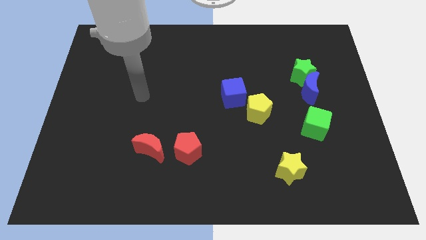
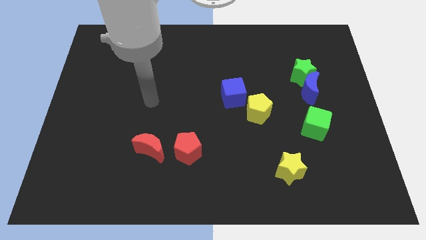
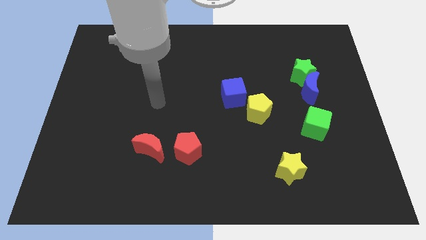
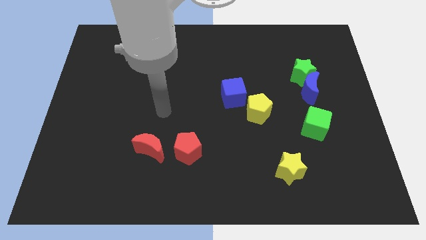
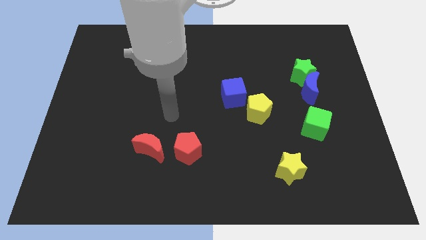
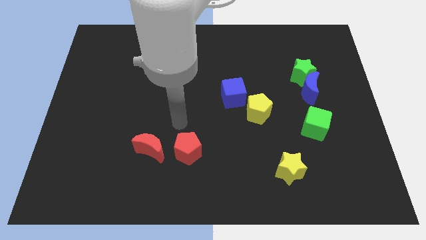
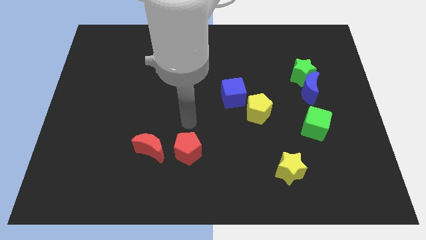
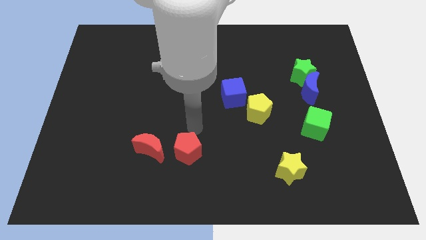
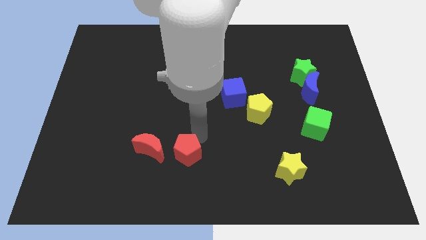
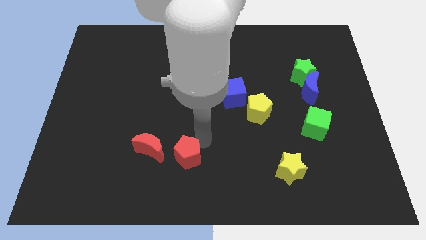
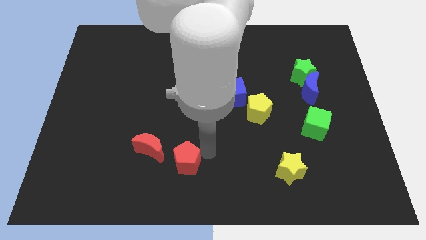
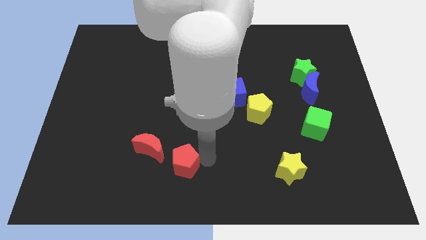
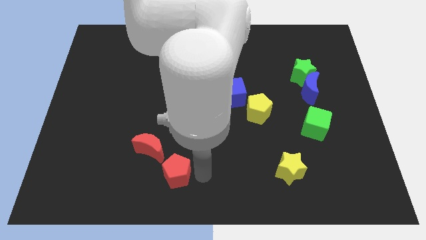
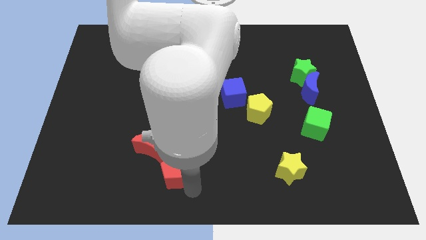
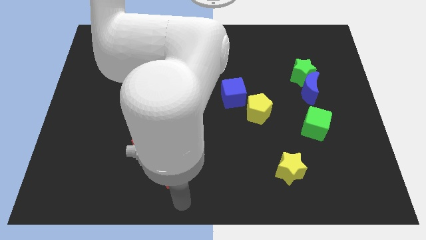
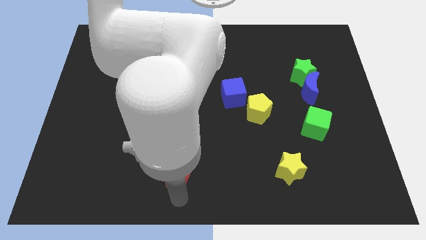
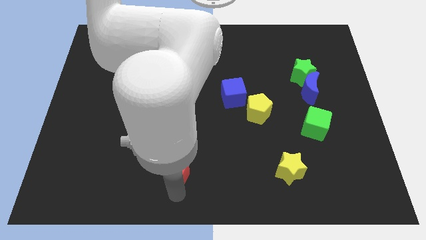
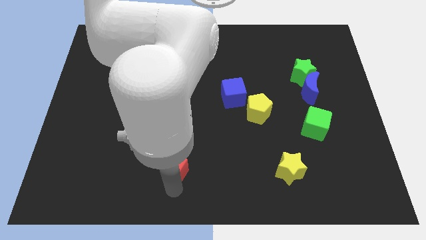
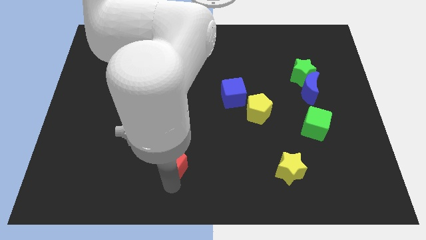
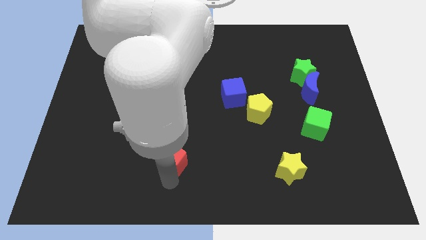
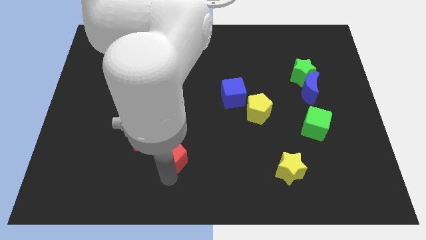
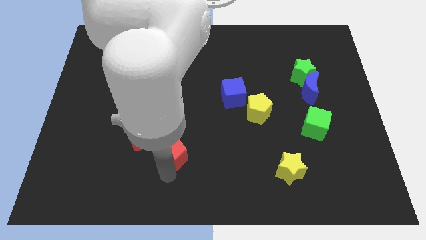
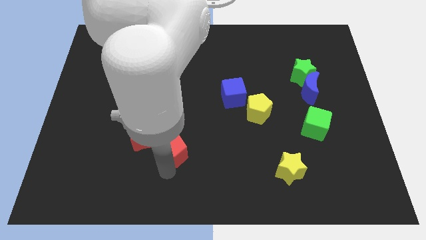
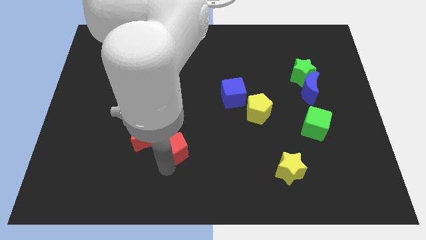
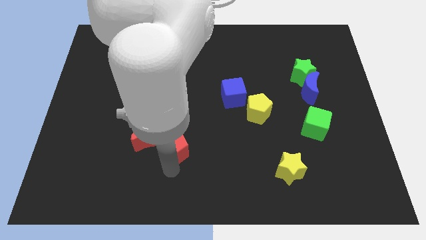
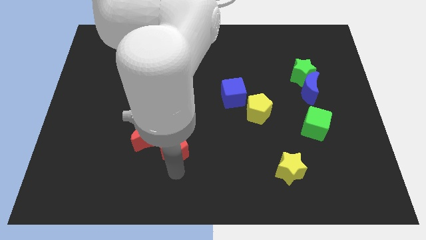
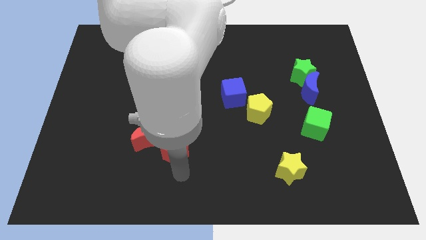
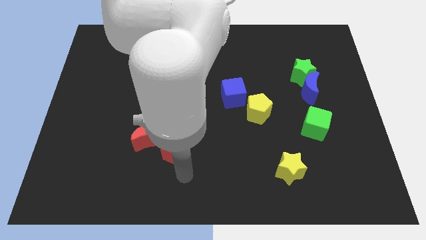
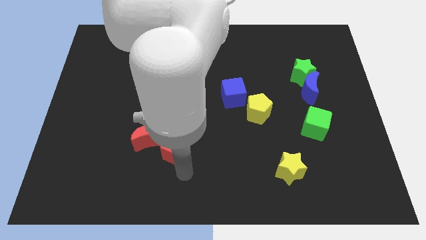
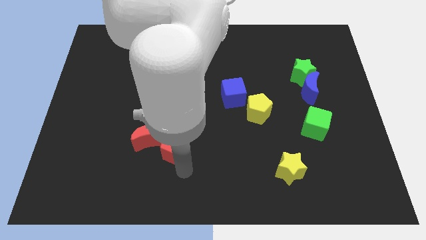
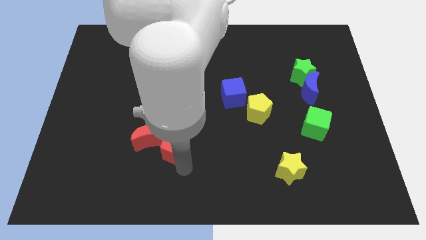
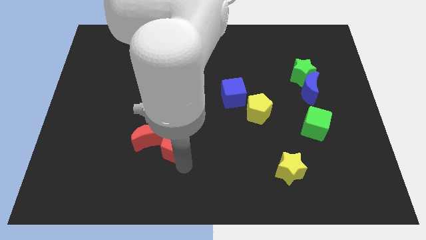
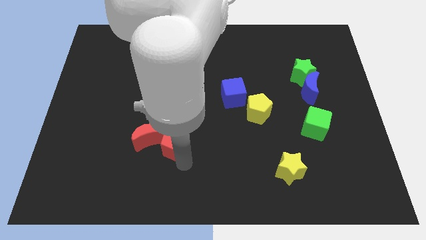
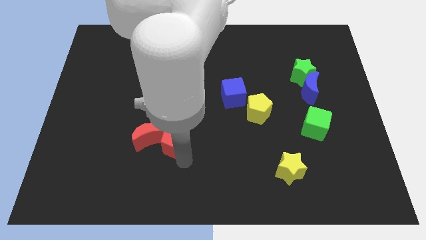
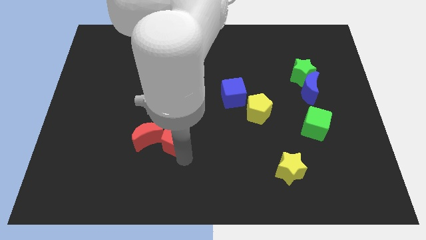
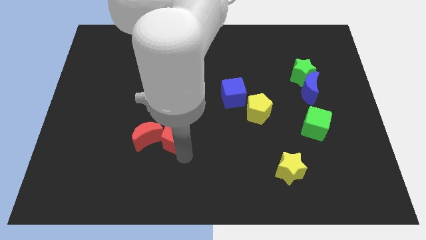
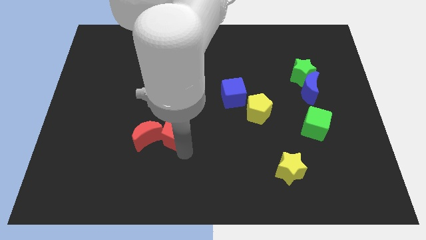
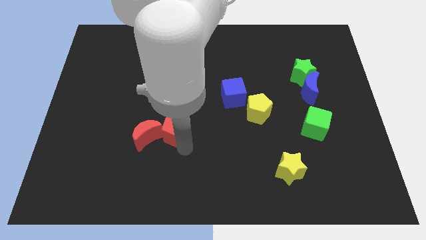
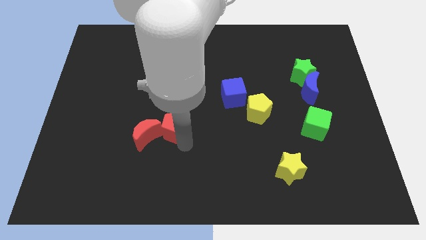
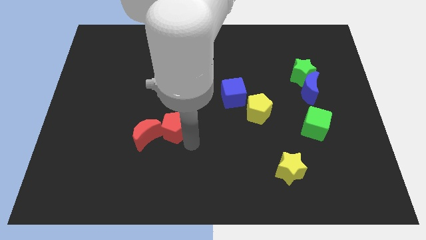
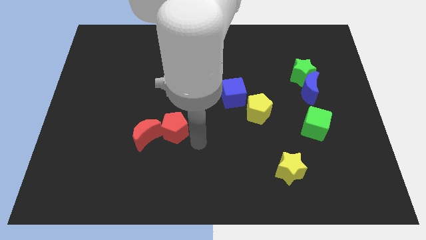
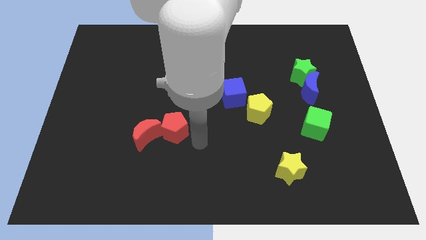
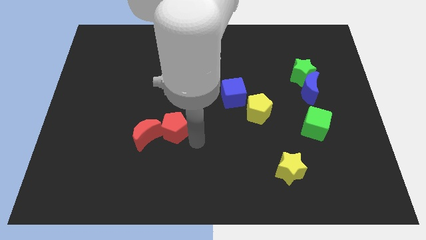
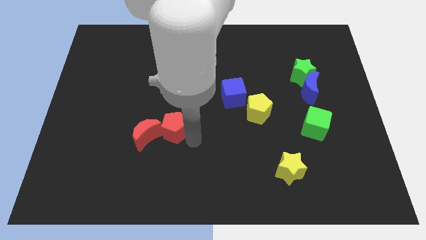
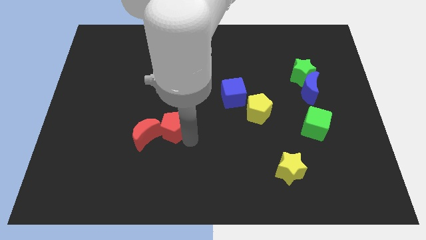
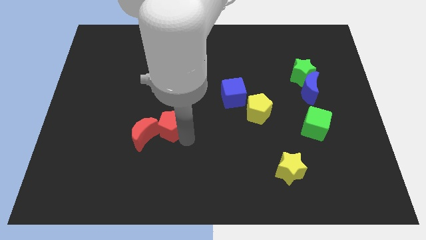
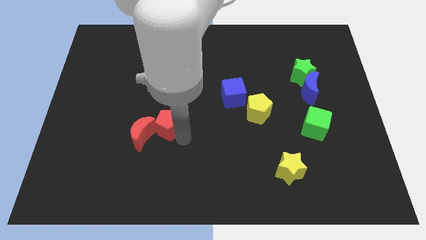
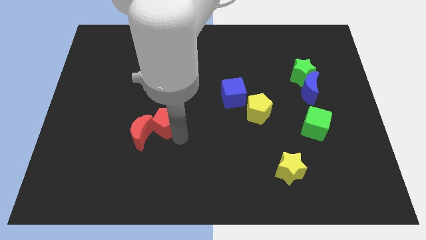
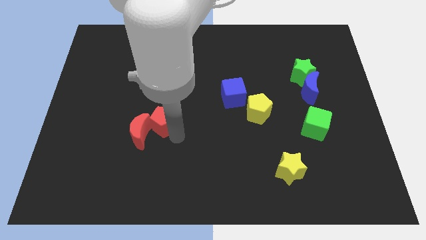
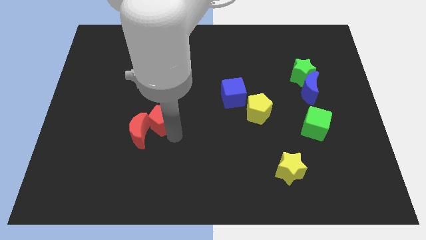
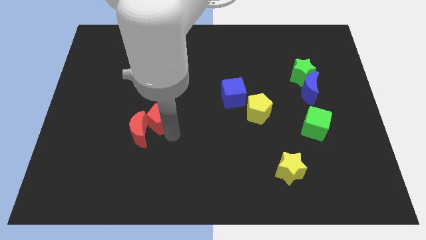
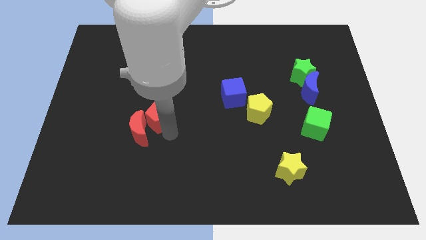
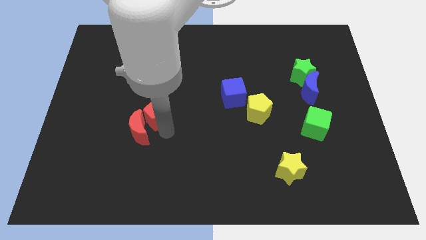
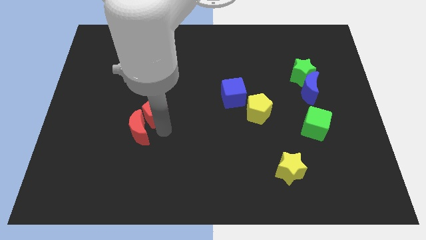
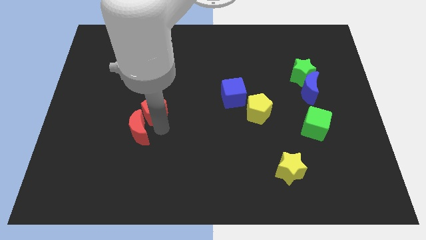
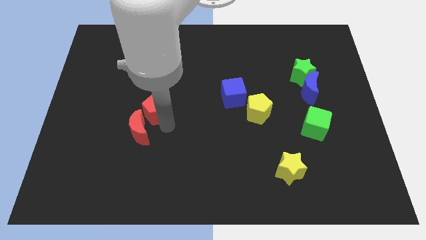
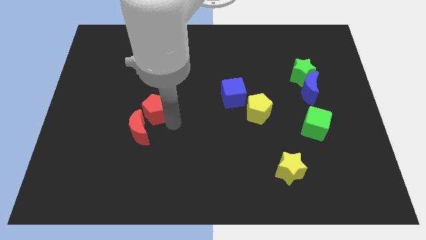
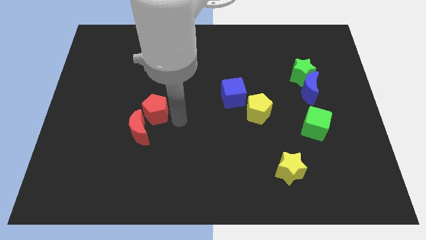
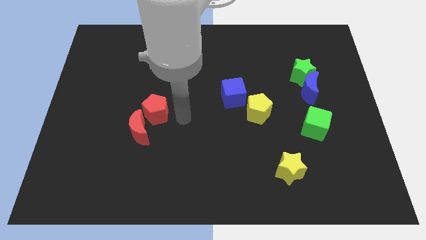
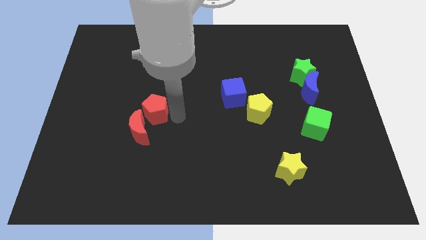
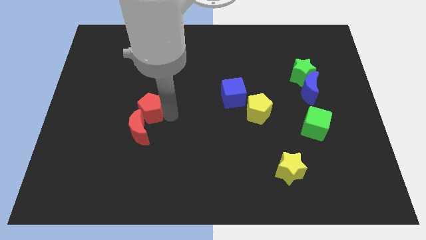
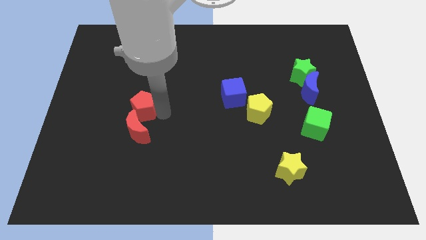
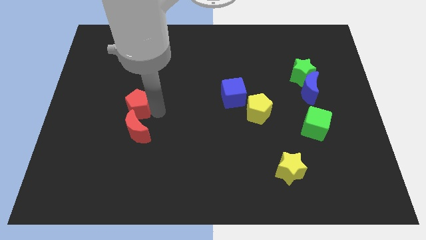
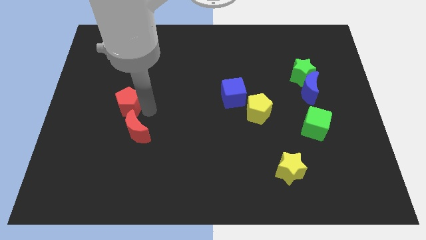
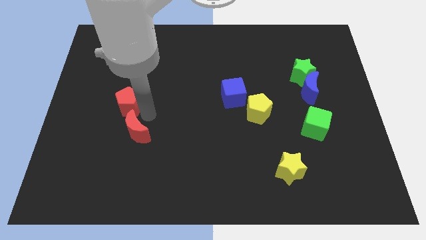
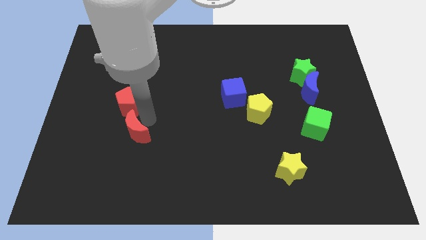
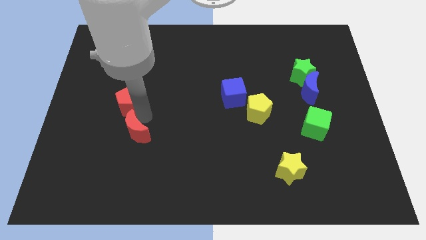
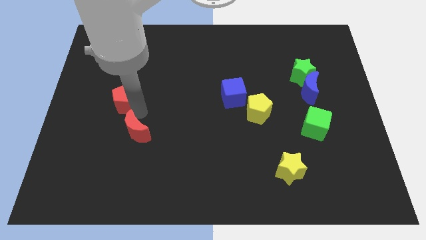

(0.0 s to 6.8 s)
move the red pentagon diagonally up and to the left

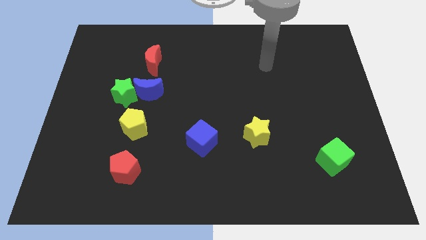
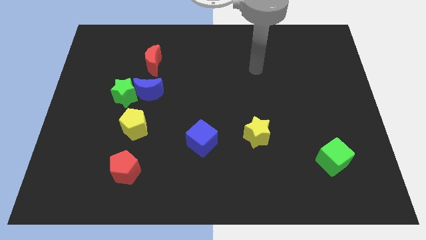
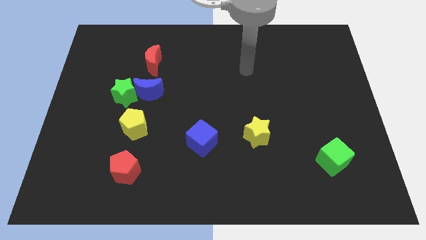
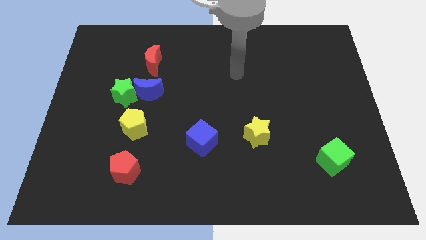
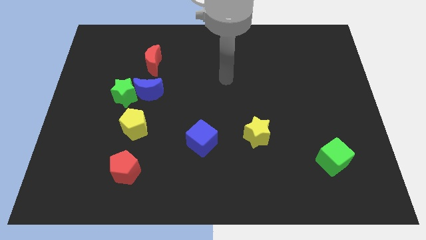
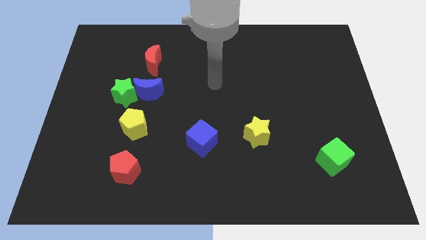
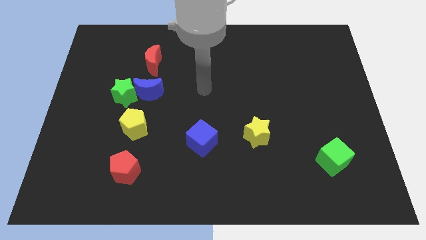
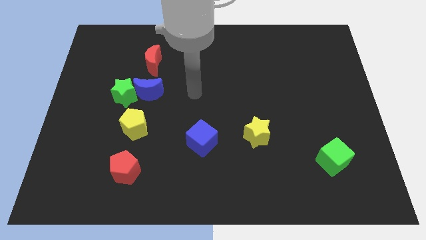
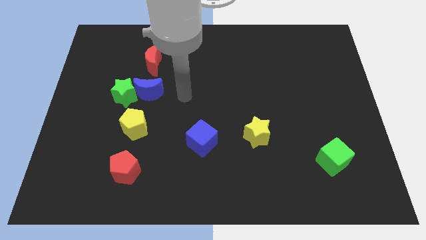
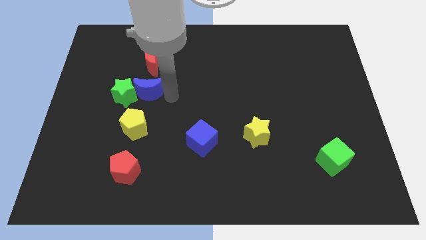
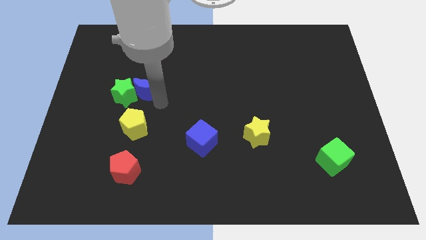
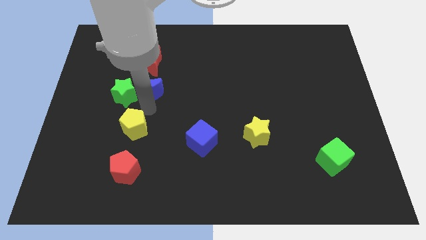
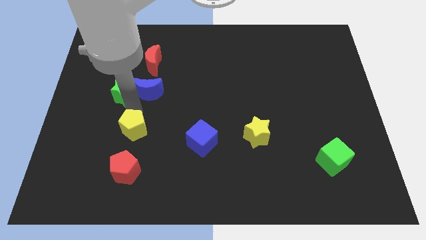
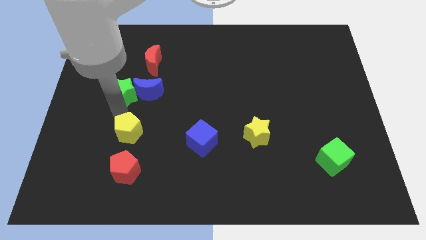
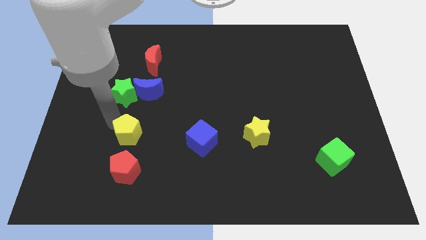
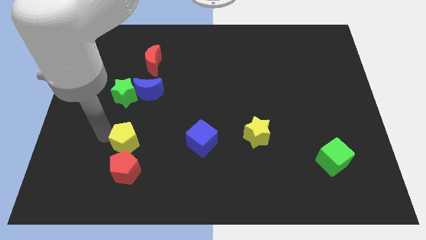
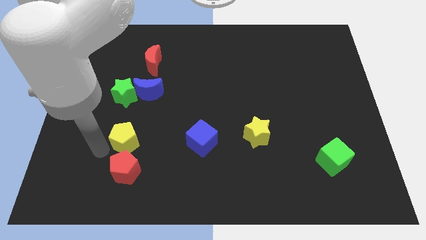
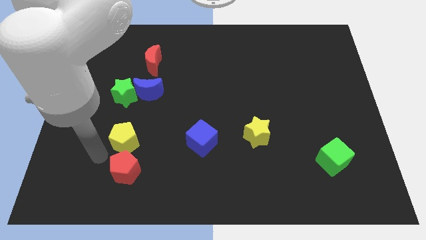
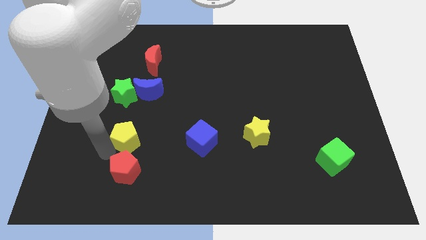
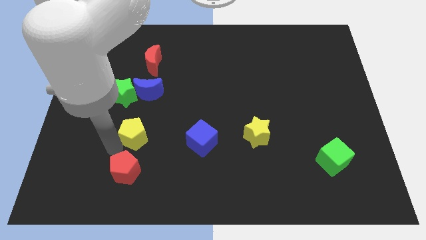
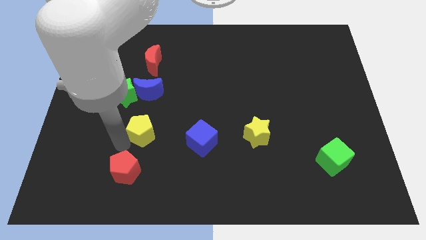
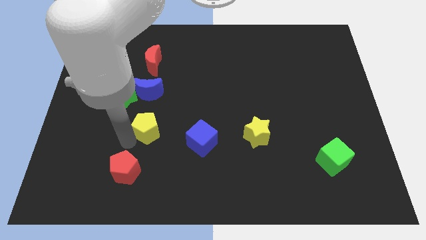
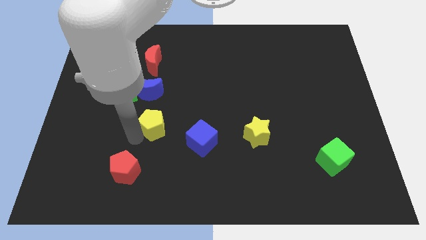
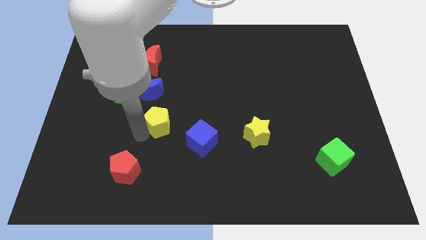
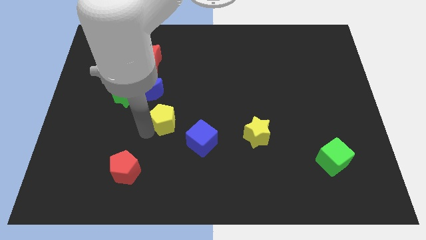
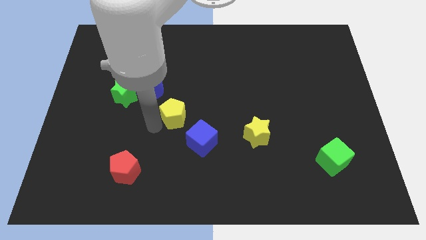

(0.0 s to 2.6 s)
move the yellow pentagon to the right somewhat
